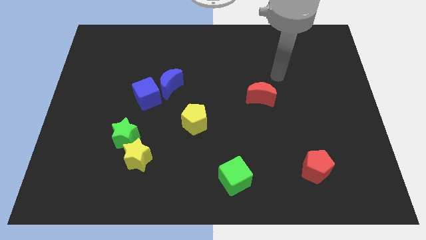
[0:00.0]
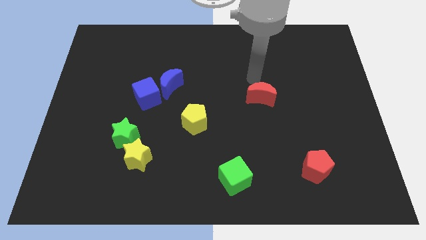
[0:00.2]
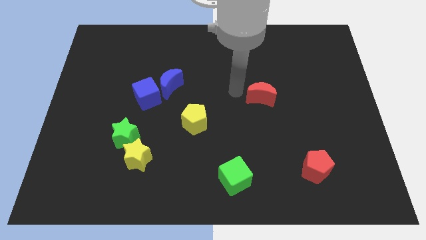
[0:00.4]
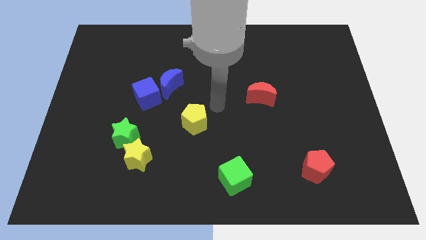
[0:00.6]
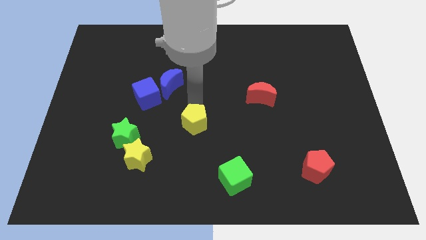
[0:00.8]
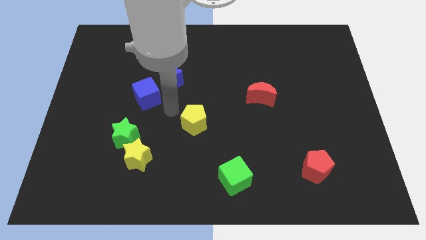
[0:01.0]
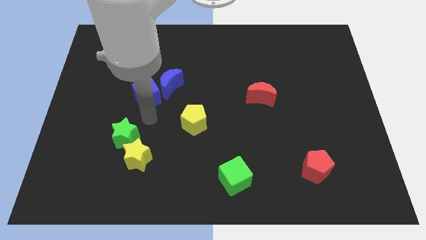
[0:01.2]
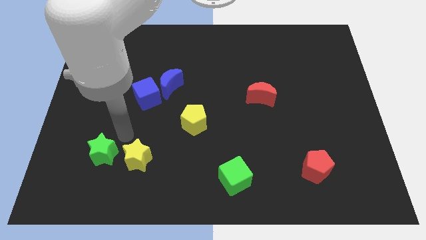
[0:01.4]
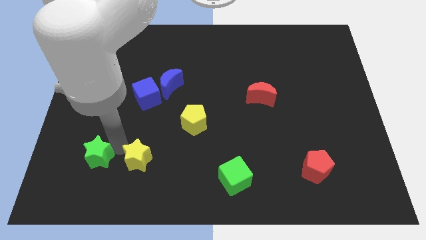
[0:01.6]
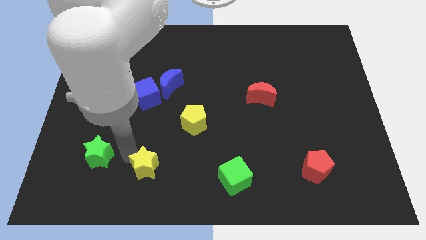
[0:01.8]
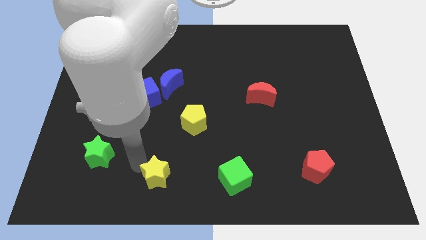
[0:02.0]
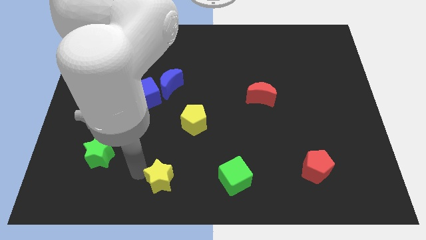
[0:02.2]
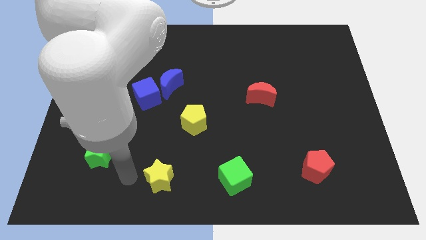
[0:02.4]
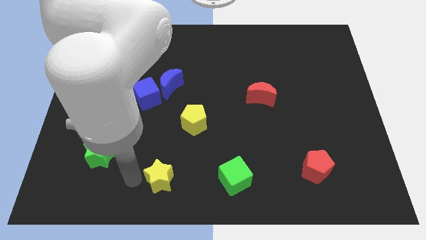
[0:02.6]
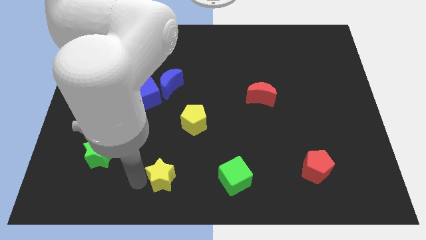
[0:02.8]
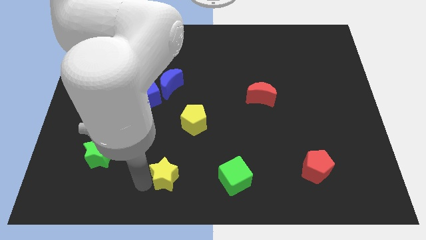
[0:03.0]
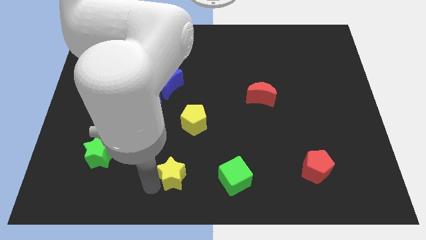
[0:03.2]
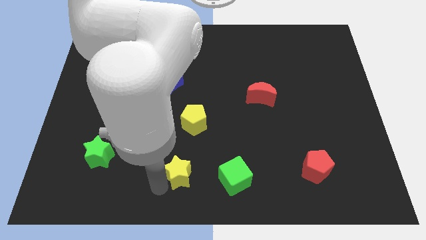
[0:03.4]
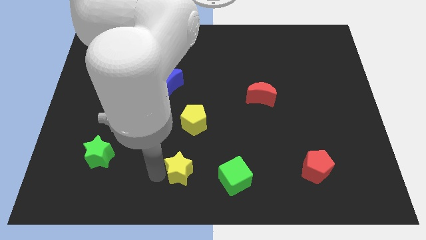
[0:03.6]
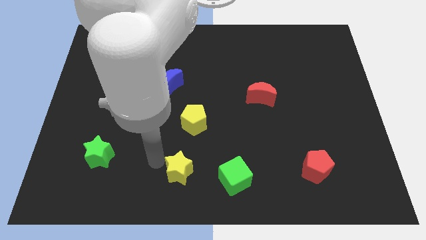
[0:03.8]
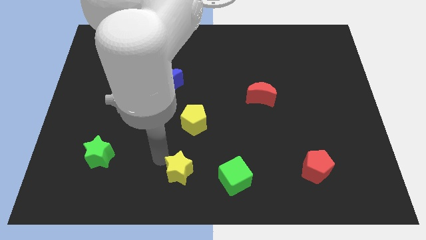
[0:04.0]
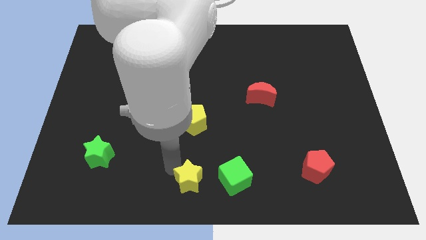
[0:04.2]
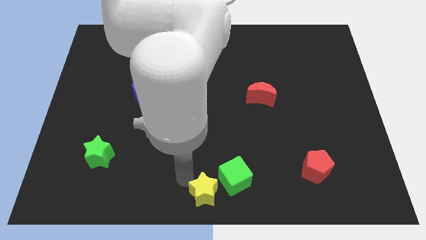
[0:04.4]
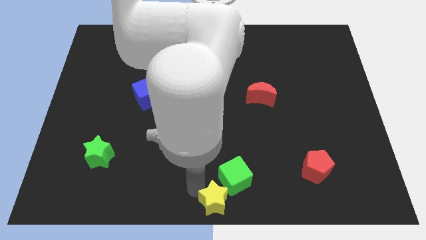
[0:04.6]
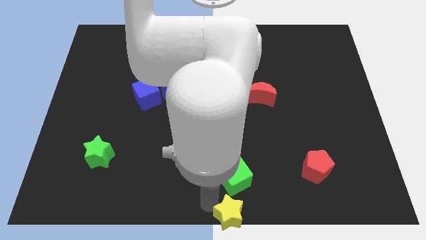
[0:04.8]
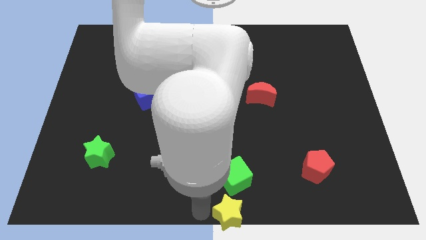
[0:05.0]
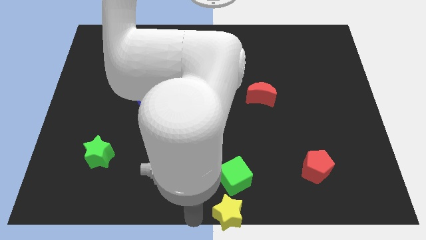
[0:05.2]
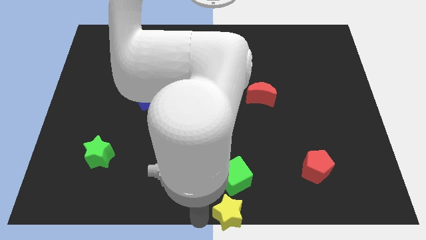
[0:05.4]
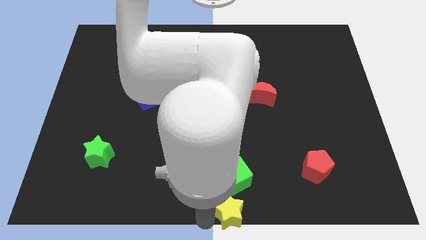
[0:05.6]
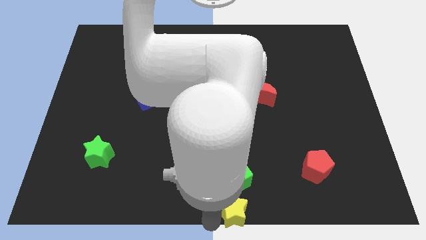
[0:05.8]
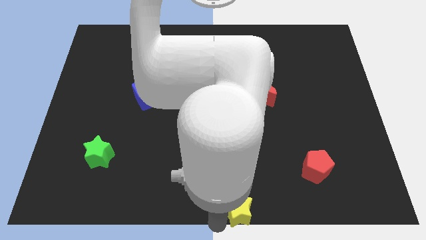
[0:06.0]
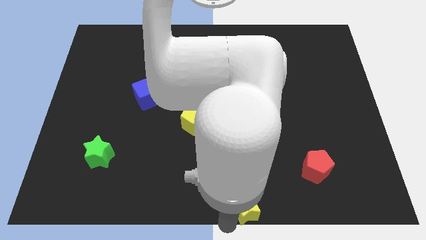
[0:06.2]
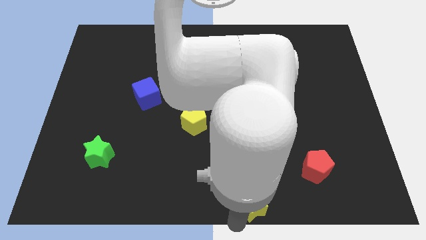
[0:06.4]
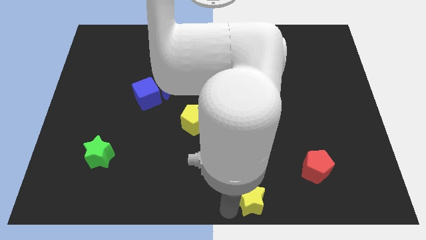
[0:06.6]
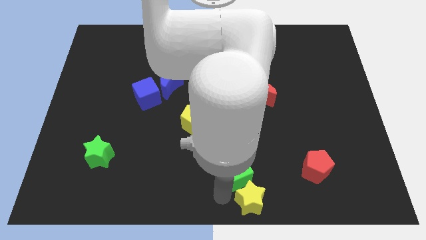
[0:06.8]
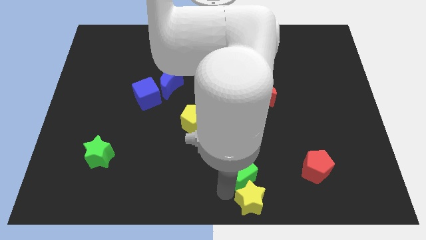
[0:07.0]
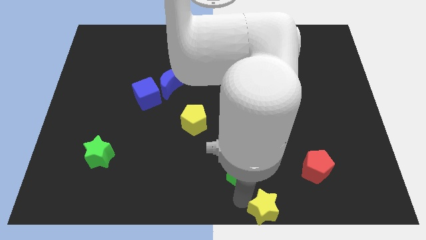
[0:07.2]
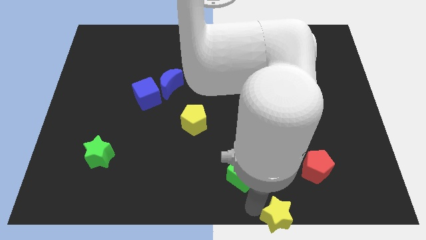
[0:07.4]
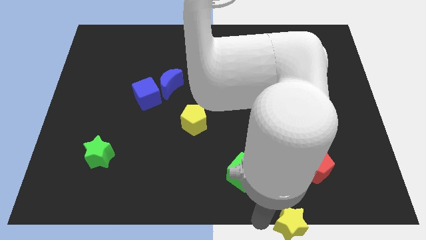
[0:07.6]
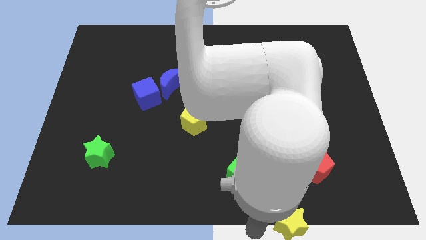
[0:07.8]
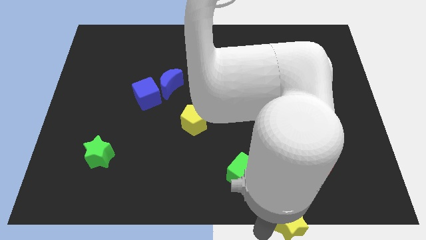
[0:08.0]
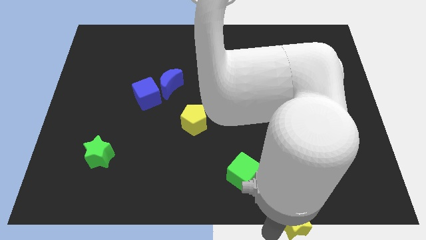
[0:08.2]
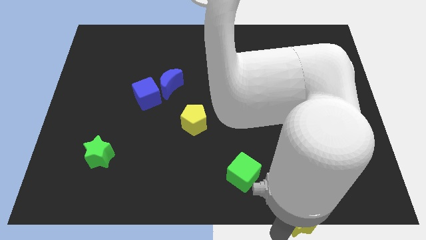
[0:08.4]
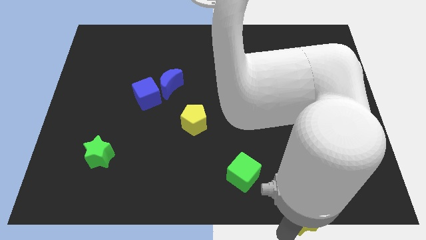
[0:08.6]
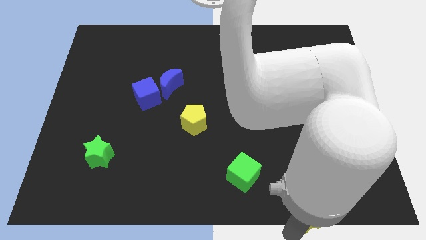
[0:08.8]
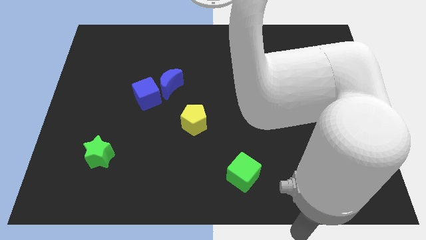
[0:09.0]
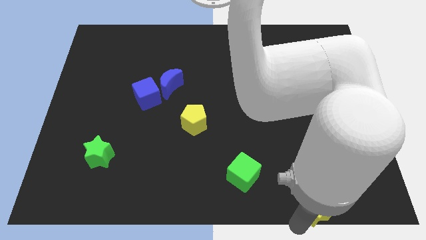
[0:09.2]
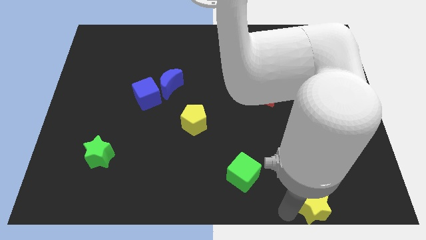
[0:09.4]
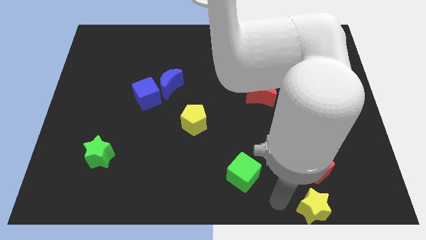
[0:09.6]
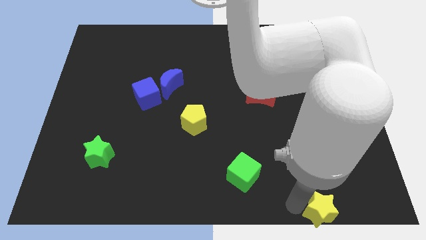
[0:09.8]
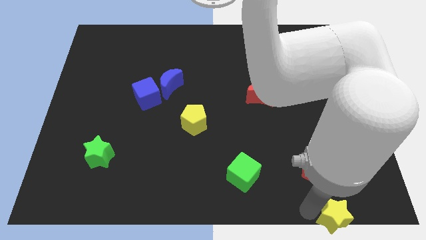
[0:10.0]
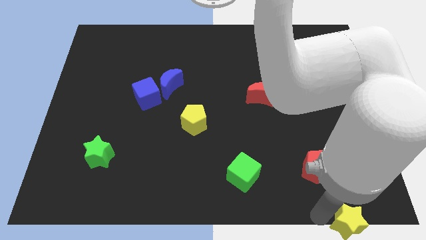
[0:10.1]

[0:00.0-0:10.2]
move the yellow star to the bottom right

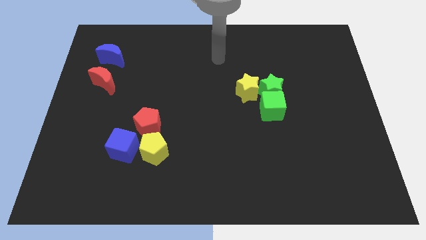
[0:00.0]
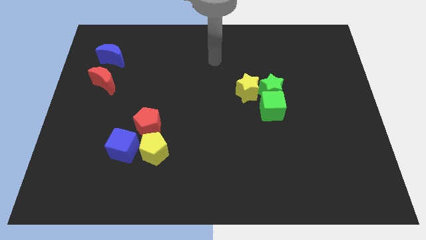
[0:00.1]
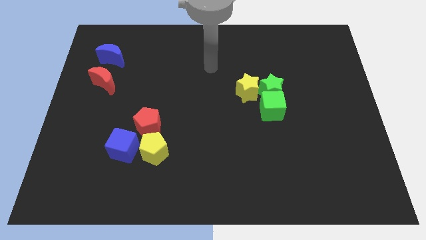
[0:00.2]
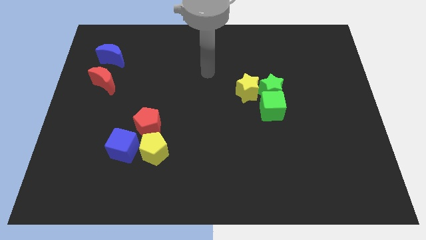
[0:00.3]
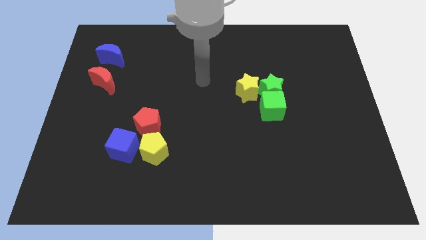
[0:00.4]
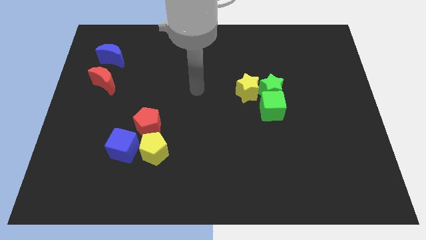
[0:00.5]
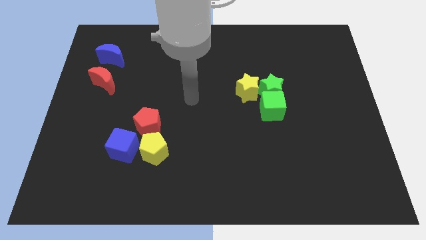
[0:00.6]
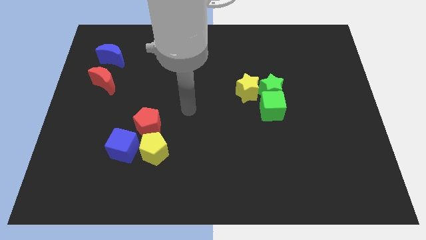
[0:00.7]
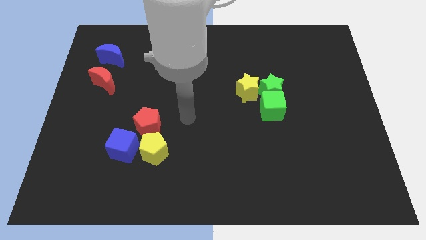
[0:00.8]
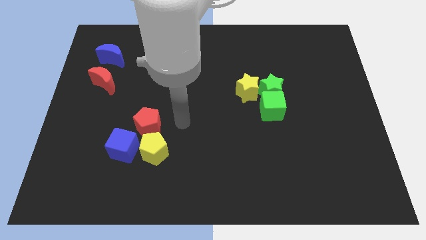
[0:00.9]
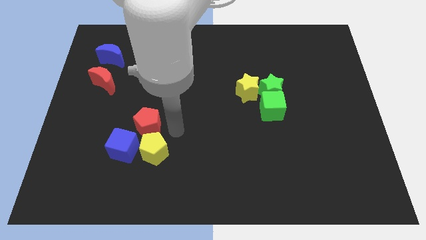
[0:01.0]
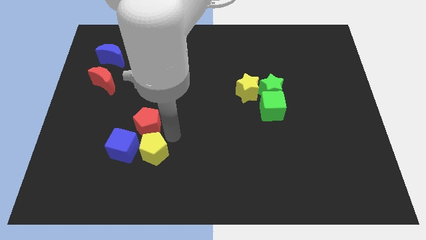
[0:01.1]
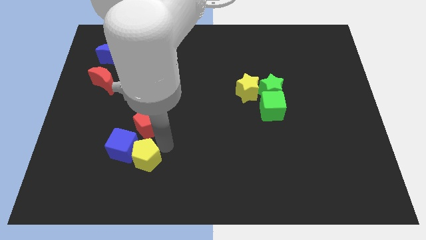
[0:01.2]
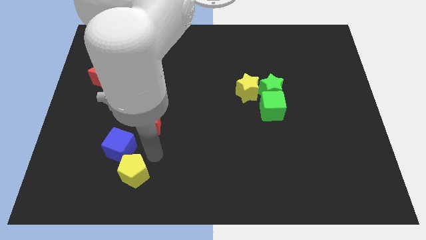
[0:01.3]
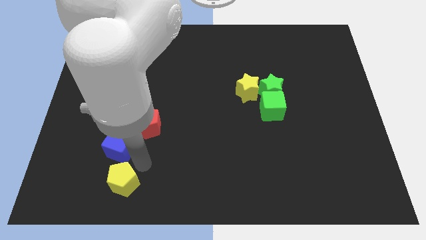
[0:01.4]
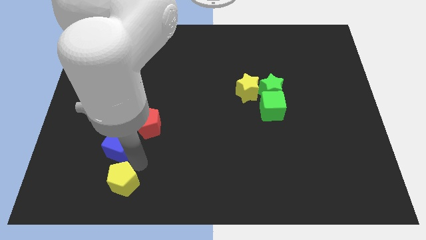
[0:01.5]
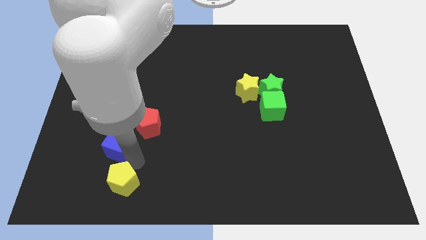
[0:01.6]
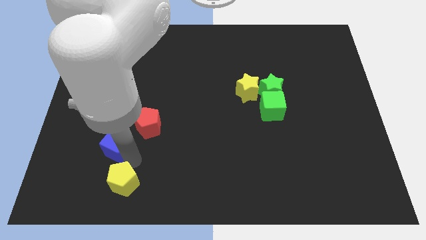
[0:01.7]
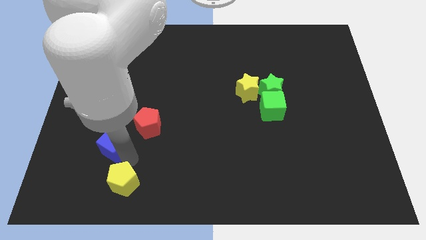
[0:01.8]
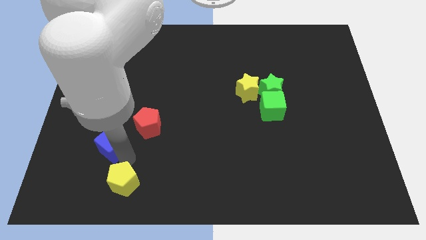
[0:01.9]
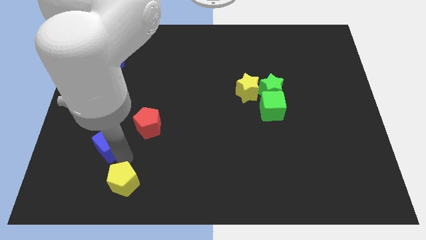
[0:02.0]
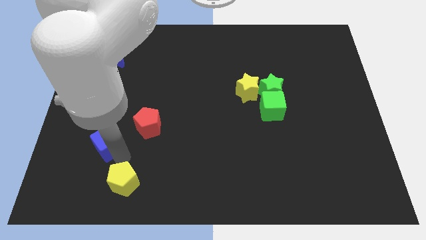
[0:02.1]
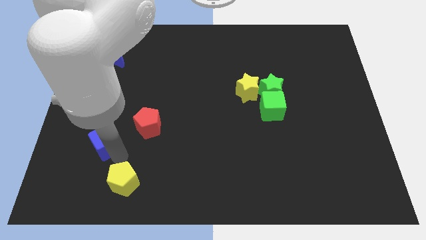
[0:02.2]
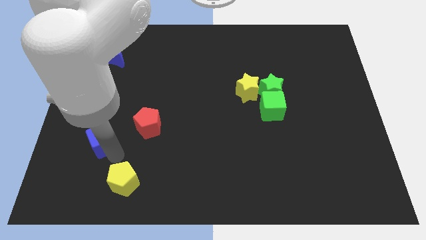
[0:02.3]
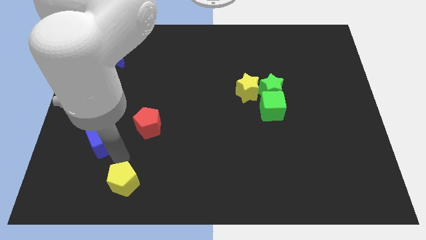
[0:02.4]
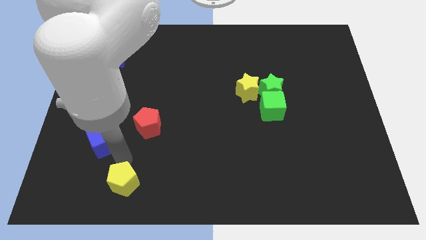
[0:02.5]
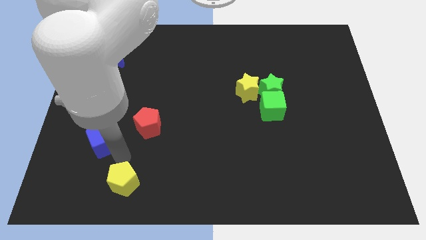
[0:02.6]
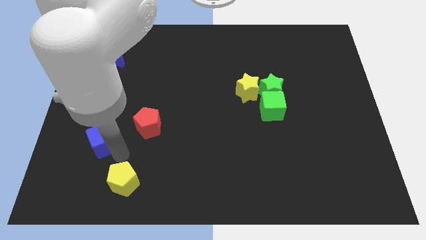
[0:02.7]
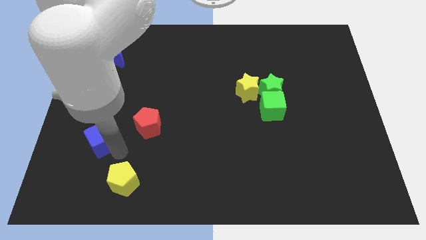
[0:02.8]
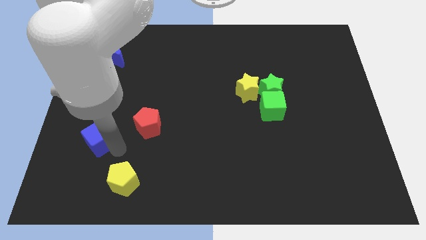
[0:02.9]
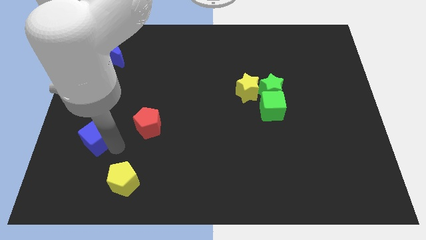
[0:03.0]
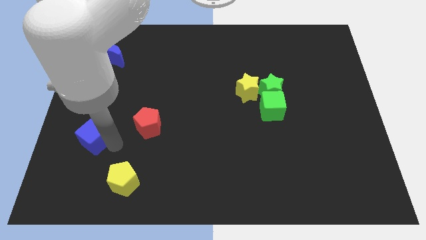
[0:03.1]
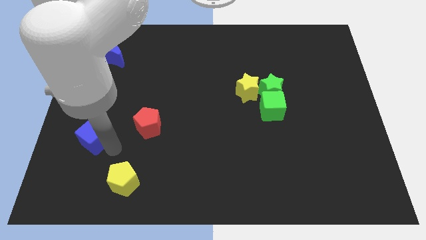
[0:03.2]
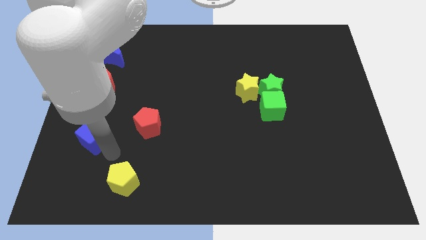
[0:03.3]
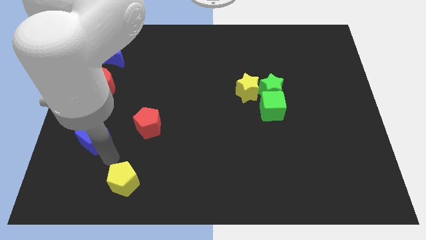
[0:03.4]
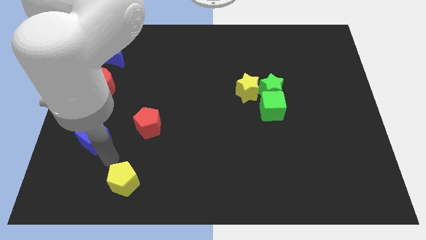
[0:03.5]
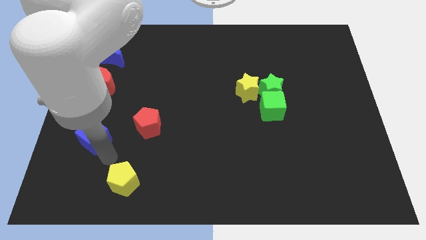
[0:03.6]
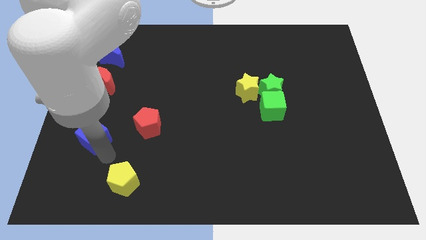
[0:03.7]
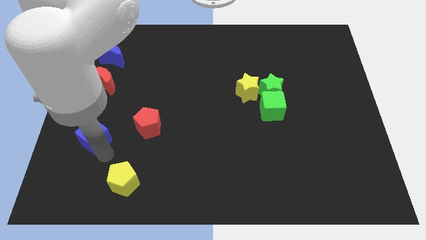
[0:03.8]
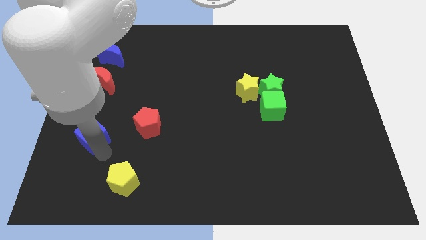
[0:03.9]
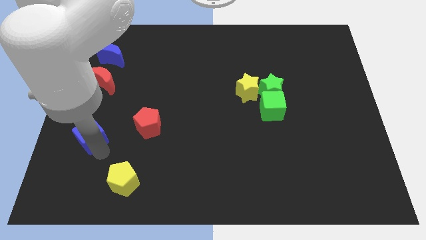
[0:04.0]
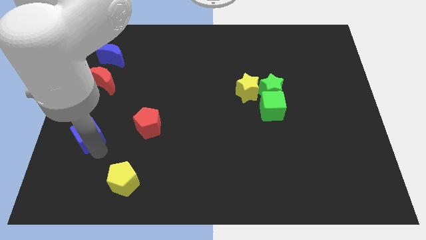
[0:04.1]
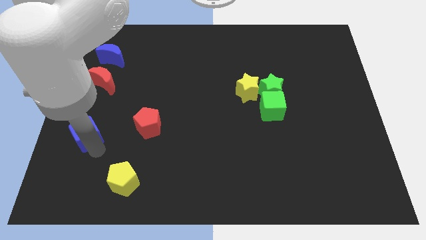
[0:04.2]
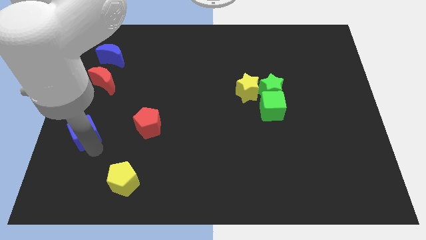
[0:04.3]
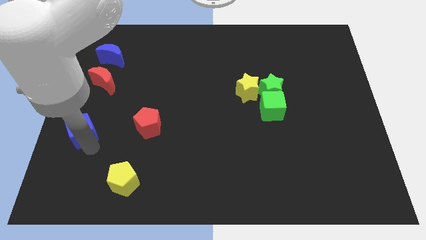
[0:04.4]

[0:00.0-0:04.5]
put the blue cube to the center left
